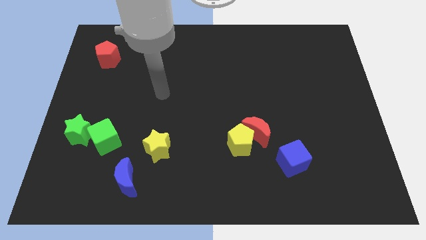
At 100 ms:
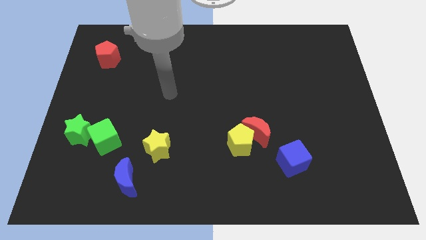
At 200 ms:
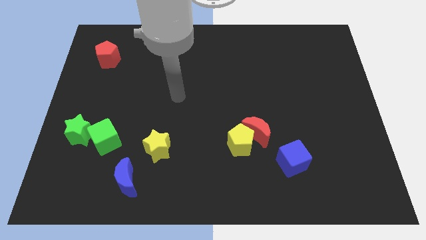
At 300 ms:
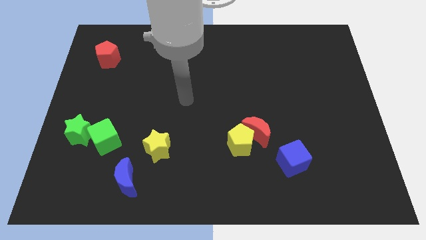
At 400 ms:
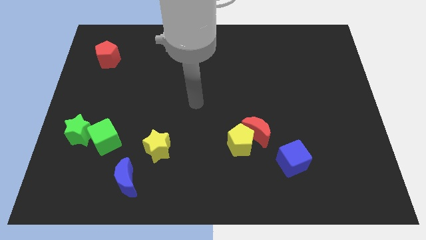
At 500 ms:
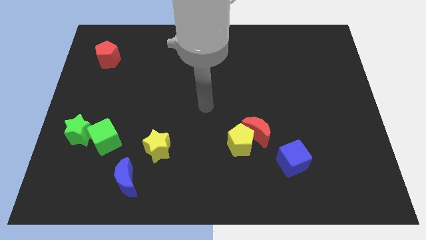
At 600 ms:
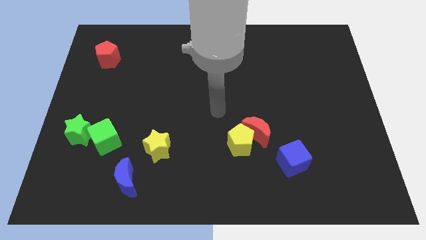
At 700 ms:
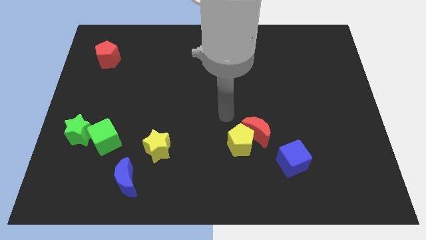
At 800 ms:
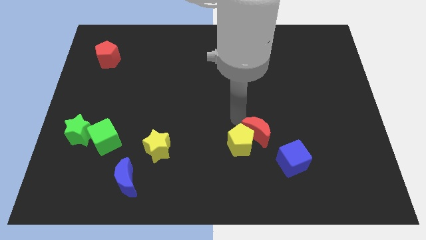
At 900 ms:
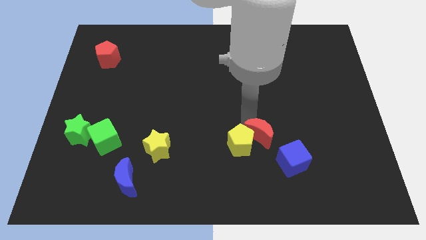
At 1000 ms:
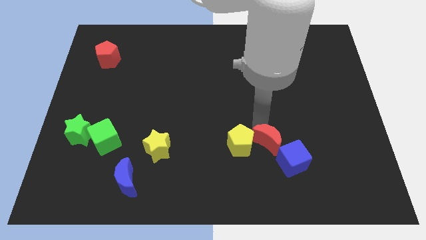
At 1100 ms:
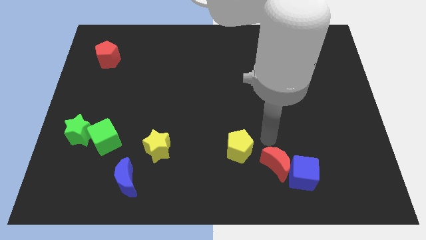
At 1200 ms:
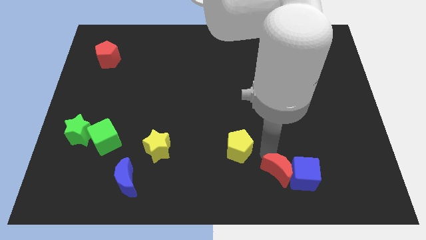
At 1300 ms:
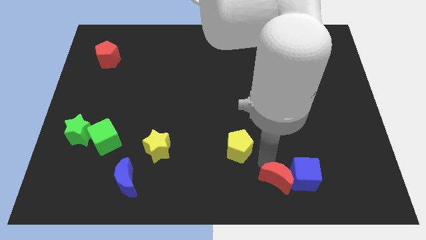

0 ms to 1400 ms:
separate the yellow pentagon from the red moon

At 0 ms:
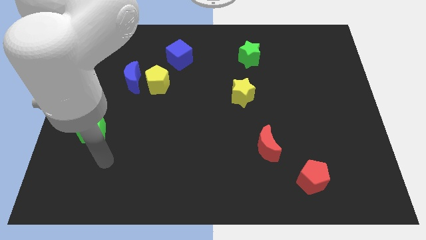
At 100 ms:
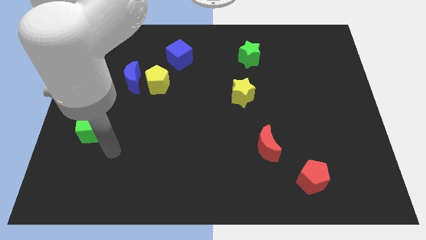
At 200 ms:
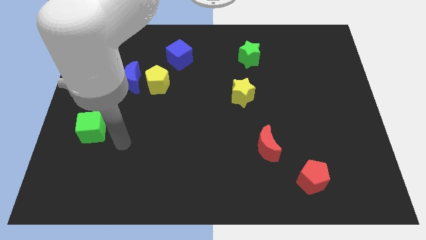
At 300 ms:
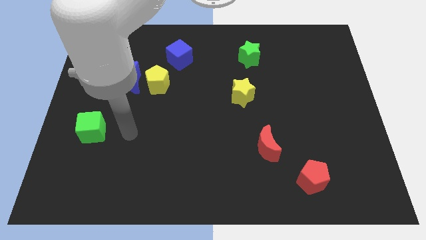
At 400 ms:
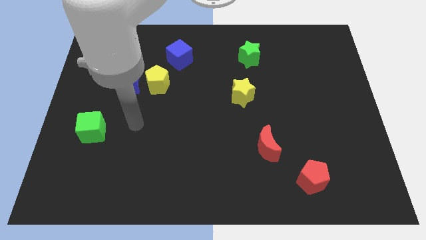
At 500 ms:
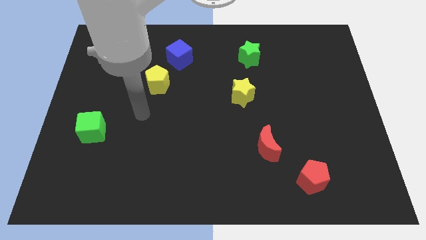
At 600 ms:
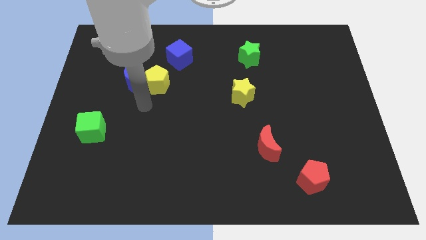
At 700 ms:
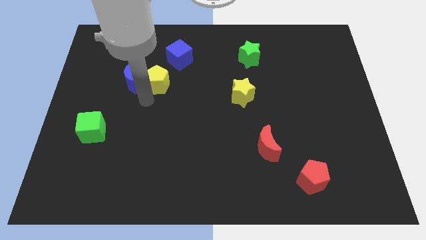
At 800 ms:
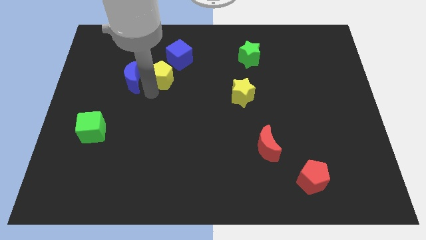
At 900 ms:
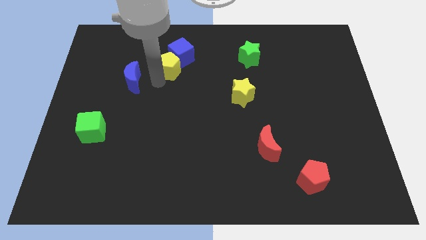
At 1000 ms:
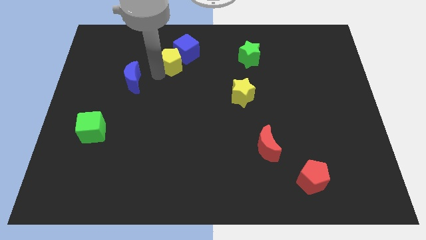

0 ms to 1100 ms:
move the blue moon away from the yellow pentagon

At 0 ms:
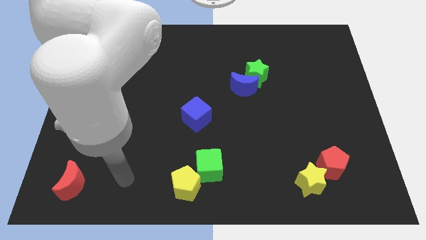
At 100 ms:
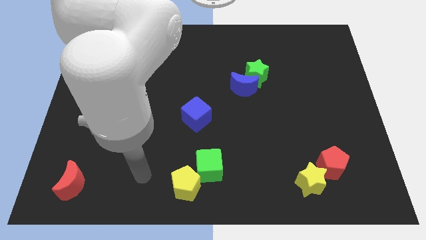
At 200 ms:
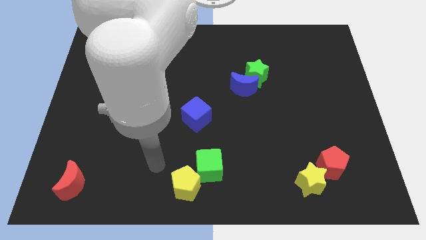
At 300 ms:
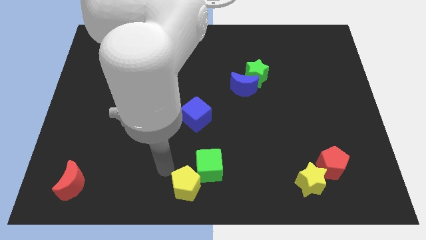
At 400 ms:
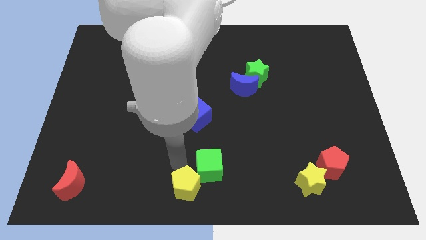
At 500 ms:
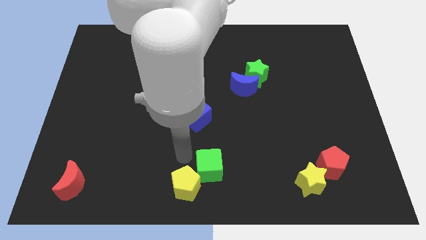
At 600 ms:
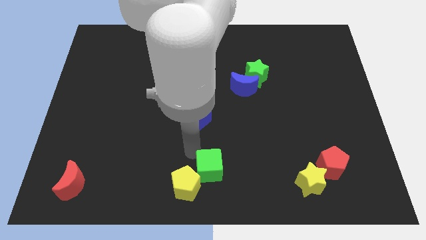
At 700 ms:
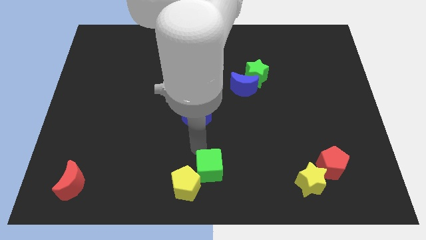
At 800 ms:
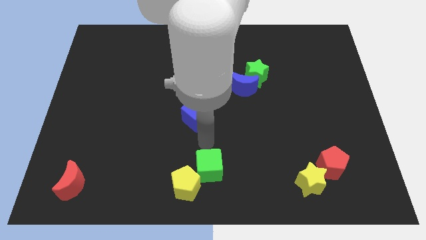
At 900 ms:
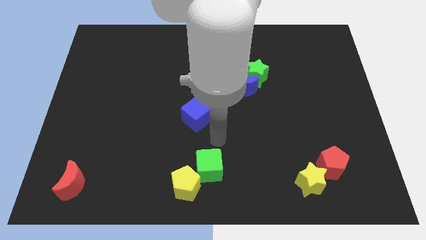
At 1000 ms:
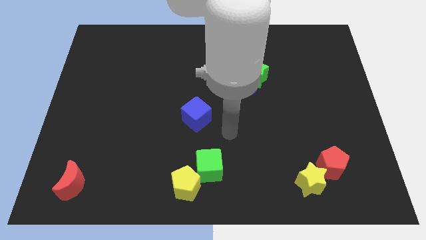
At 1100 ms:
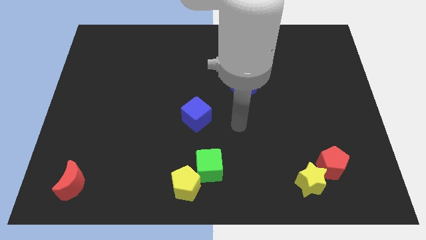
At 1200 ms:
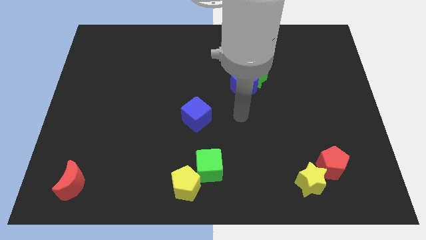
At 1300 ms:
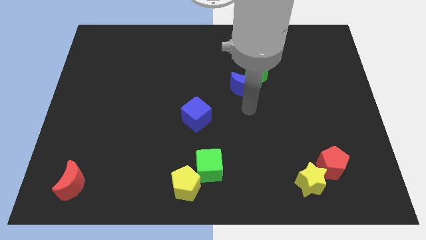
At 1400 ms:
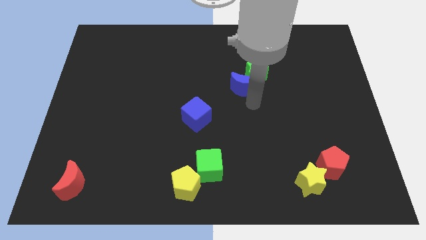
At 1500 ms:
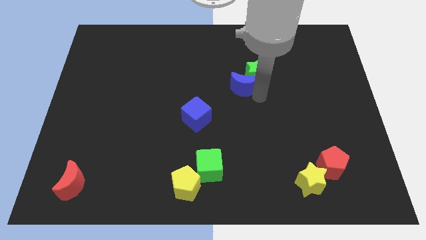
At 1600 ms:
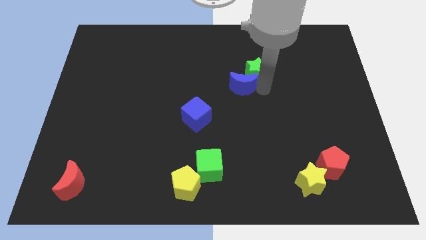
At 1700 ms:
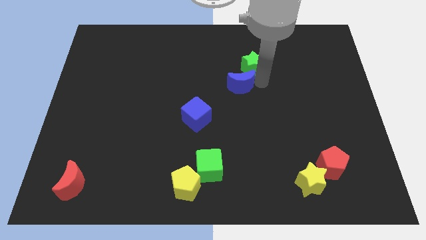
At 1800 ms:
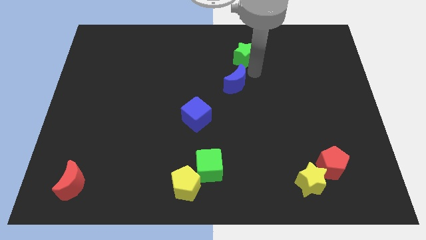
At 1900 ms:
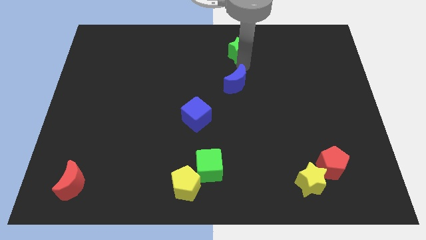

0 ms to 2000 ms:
pull the blue moon apart from the green star

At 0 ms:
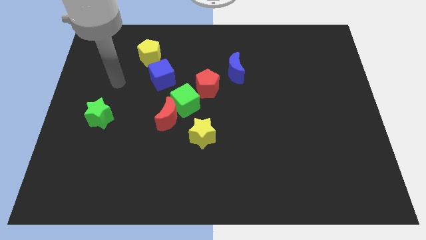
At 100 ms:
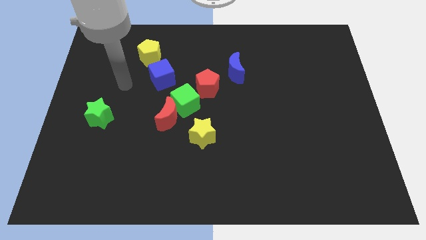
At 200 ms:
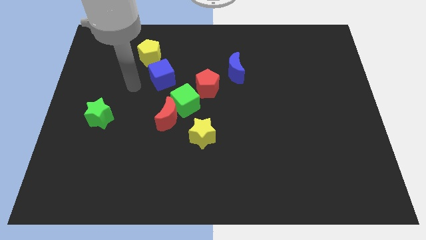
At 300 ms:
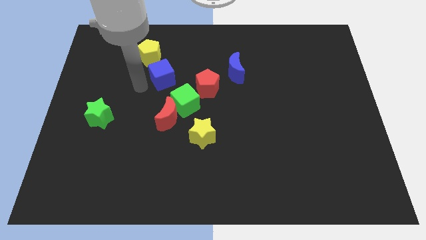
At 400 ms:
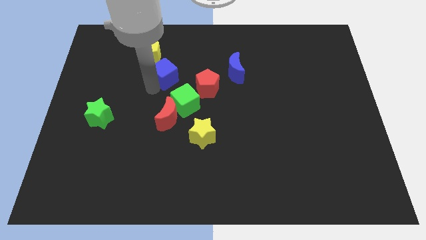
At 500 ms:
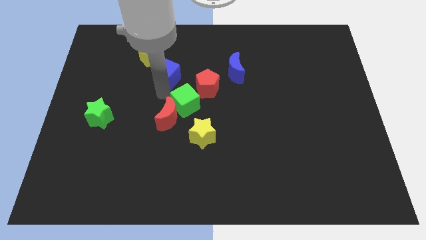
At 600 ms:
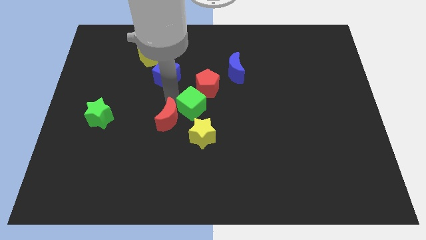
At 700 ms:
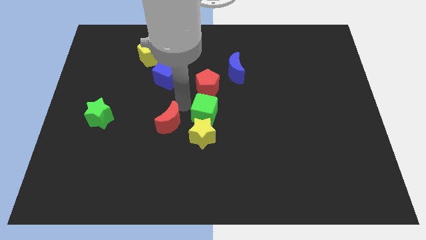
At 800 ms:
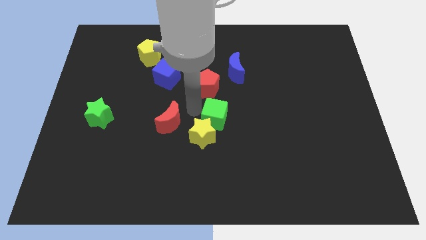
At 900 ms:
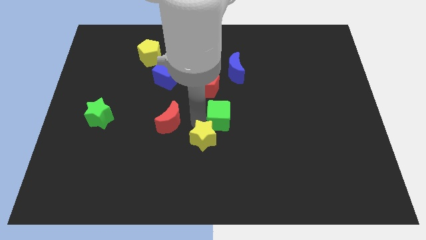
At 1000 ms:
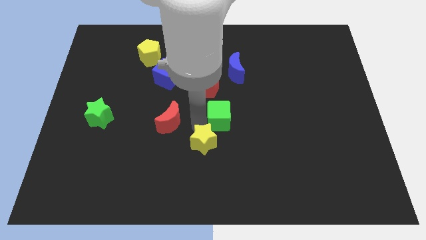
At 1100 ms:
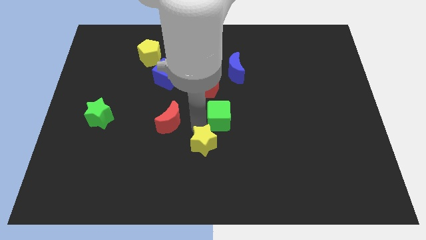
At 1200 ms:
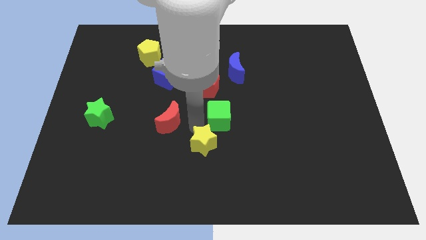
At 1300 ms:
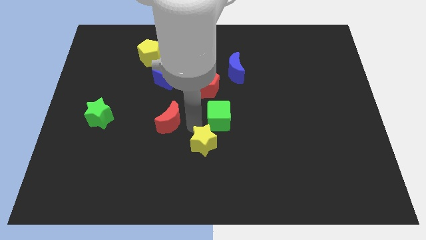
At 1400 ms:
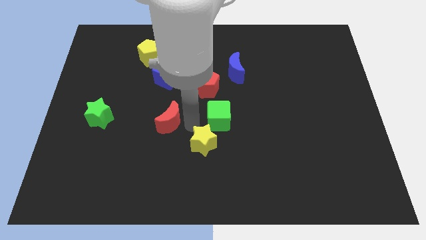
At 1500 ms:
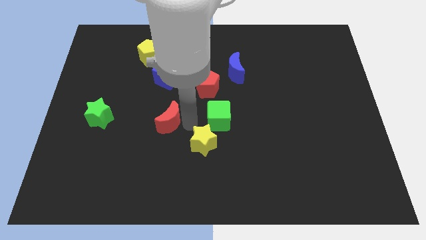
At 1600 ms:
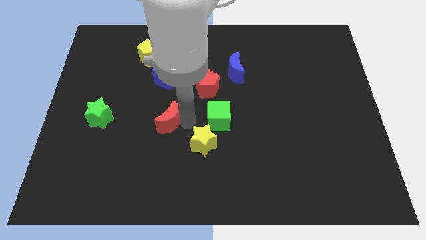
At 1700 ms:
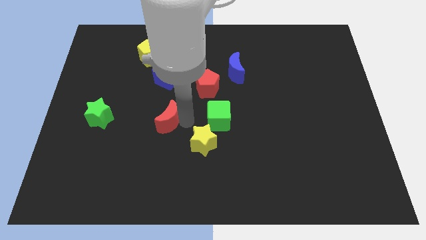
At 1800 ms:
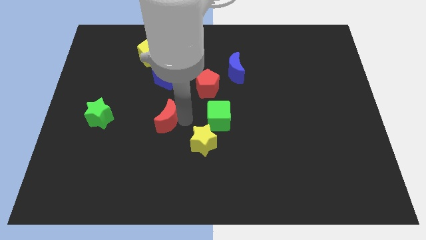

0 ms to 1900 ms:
separate the red moon from the green cube and yellow star

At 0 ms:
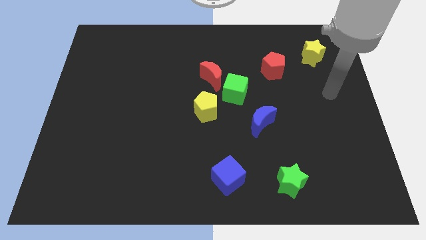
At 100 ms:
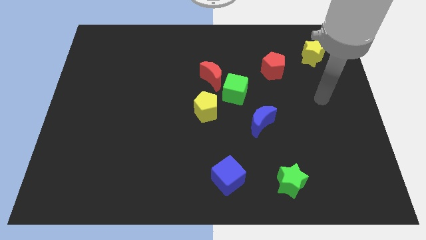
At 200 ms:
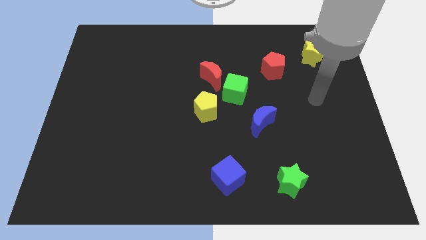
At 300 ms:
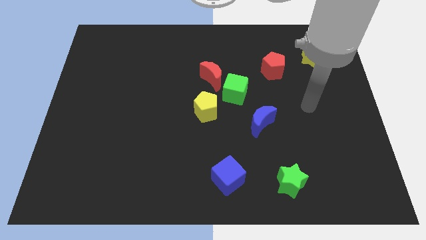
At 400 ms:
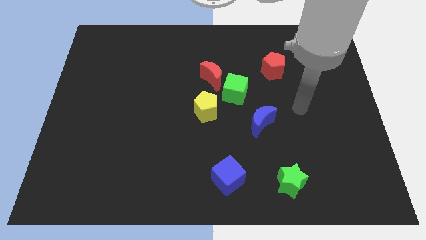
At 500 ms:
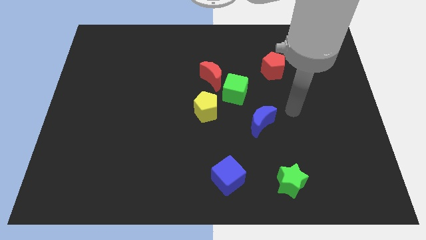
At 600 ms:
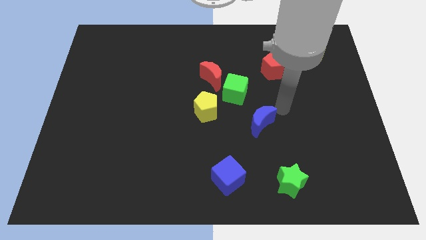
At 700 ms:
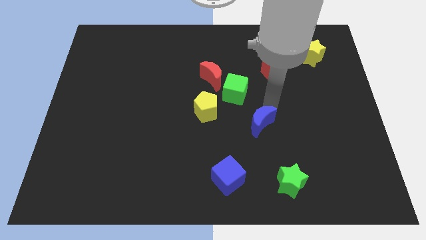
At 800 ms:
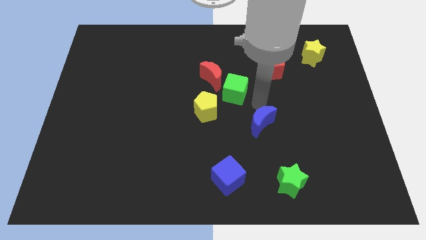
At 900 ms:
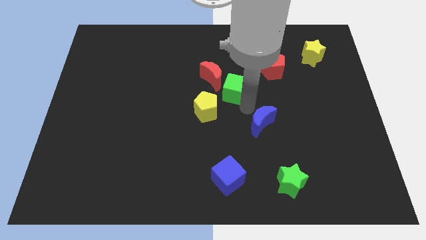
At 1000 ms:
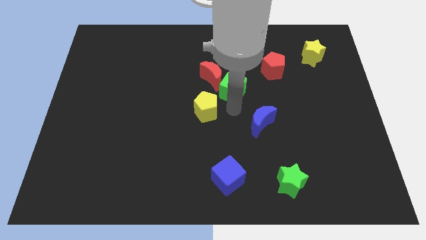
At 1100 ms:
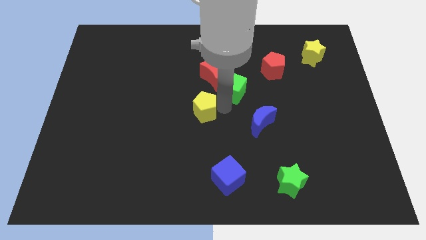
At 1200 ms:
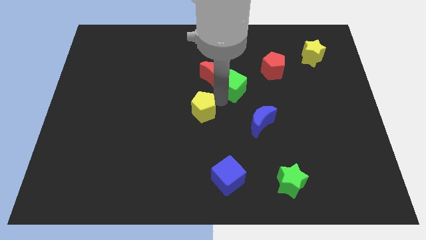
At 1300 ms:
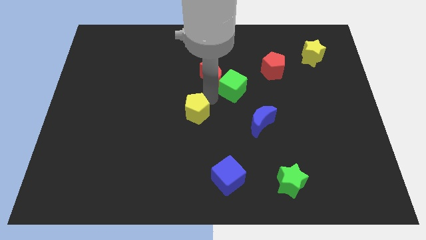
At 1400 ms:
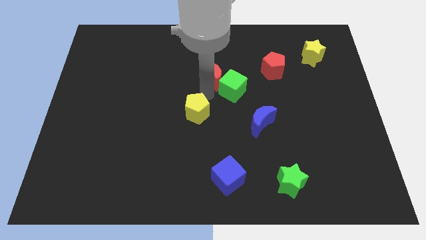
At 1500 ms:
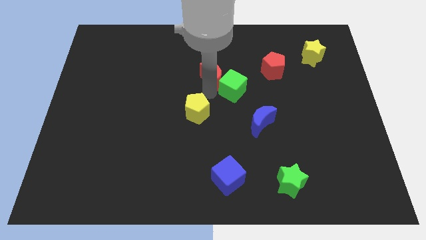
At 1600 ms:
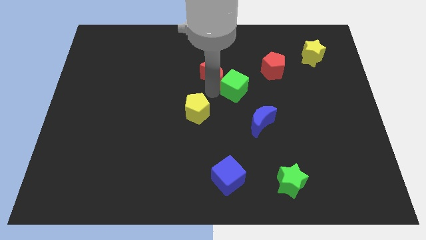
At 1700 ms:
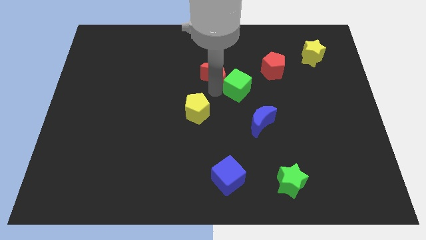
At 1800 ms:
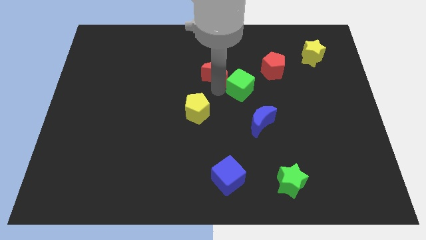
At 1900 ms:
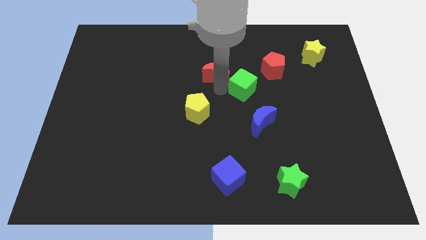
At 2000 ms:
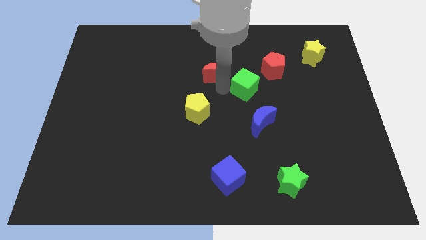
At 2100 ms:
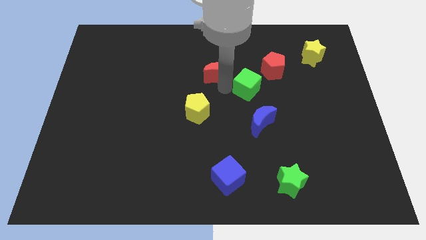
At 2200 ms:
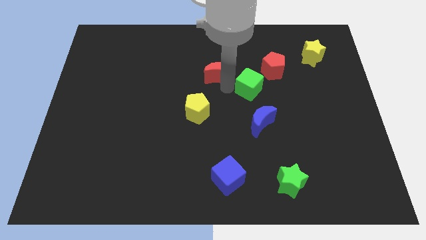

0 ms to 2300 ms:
separate the green cube from the red moon and yellow pentagon

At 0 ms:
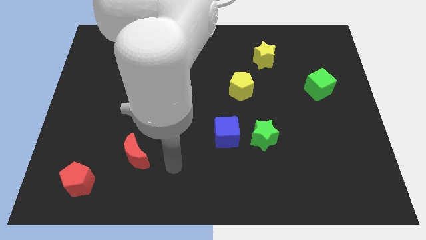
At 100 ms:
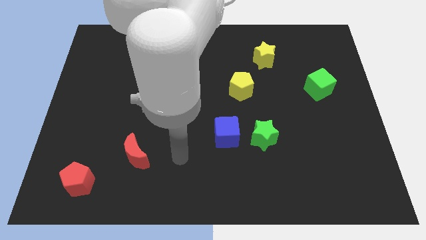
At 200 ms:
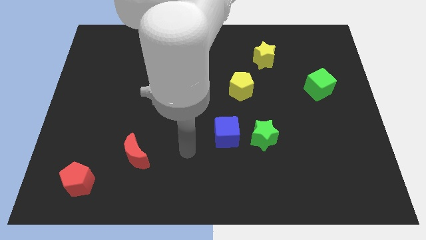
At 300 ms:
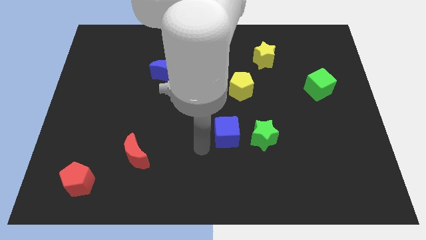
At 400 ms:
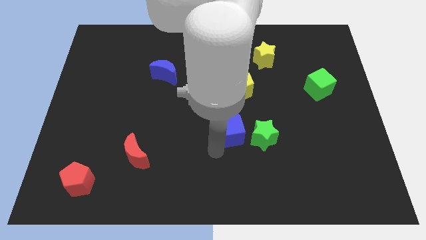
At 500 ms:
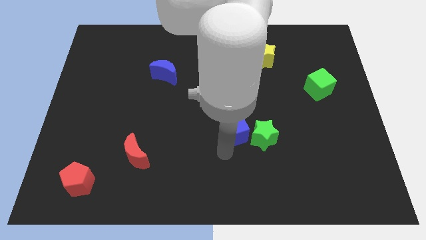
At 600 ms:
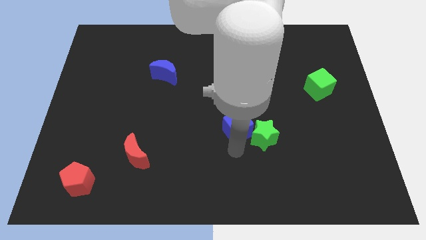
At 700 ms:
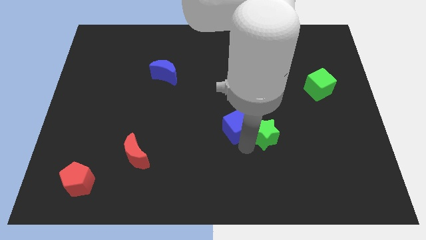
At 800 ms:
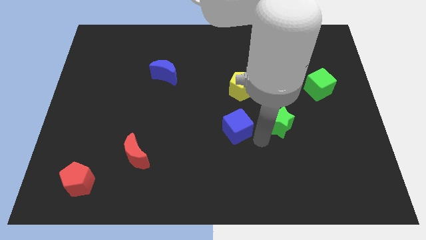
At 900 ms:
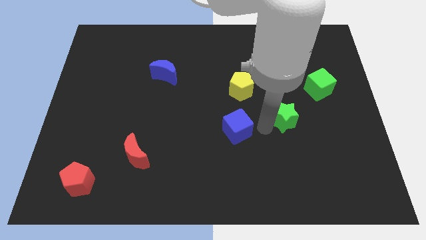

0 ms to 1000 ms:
pull the blue cube apart from the green star
